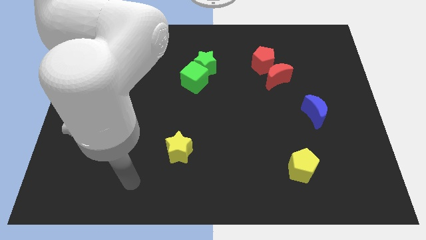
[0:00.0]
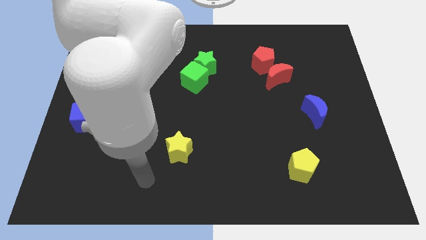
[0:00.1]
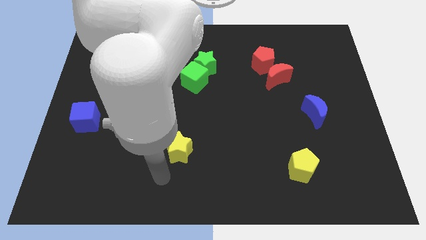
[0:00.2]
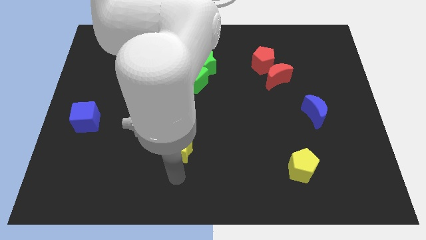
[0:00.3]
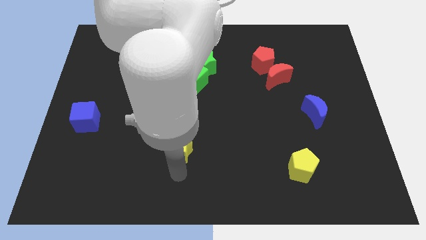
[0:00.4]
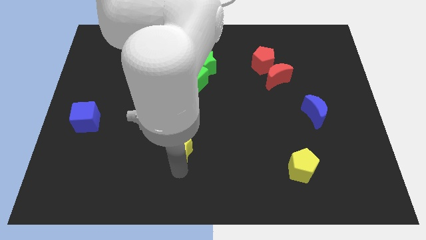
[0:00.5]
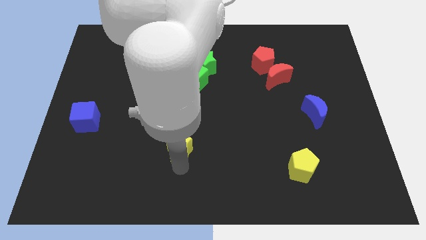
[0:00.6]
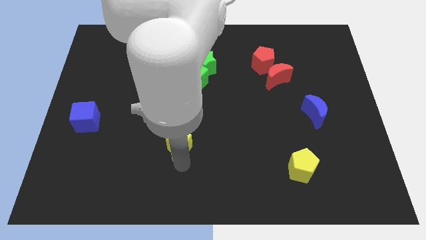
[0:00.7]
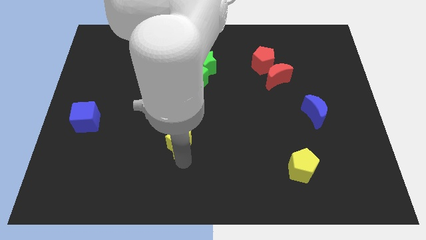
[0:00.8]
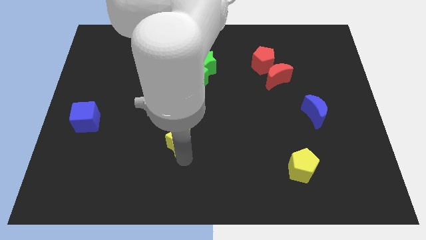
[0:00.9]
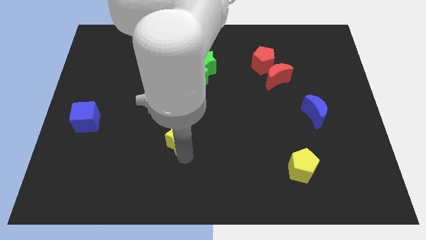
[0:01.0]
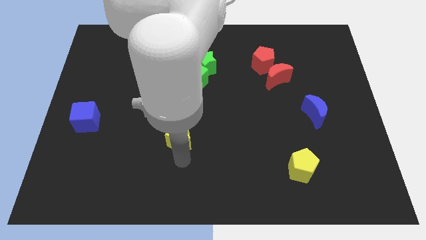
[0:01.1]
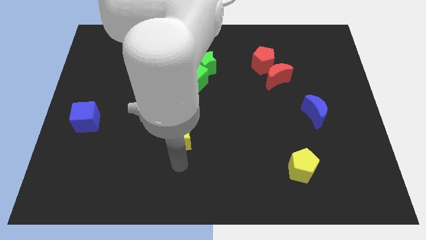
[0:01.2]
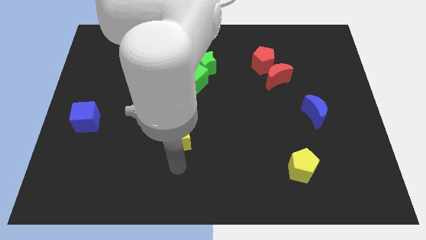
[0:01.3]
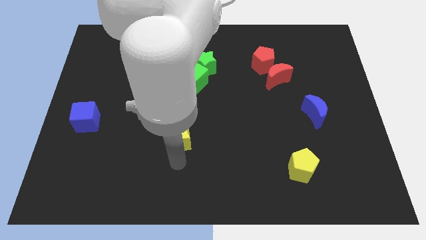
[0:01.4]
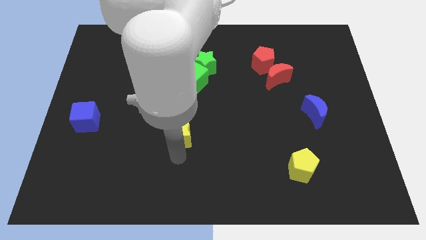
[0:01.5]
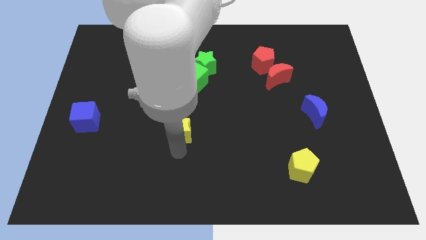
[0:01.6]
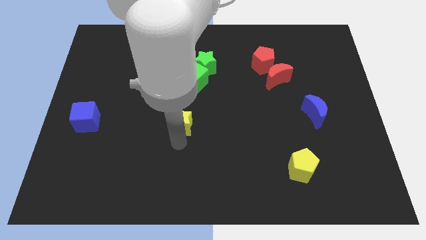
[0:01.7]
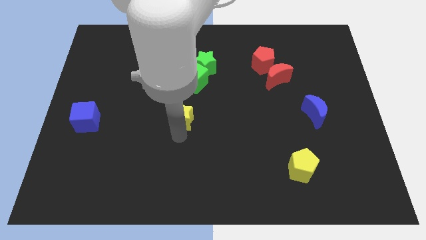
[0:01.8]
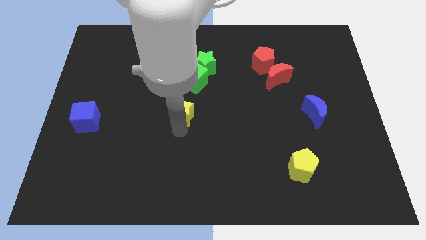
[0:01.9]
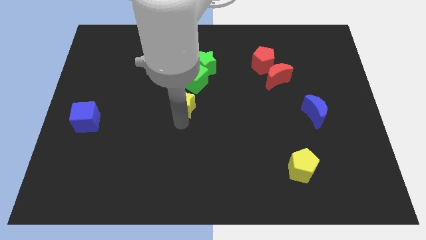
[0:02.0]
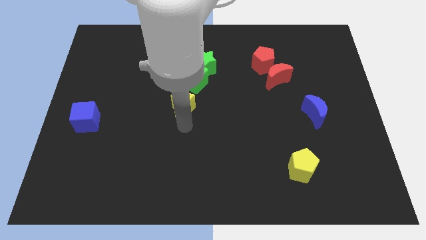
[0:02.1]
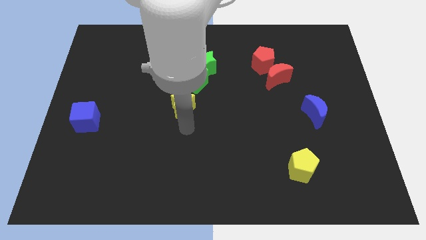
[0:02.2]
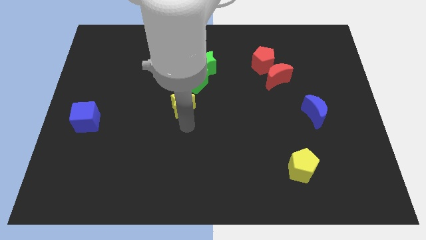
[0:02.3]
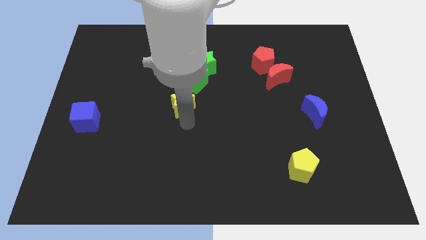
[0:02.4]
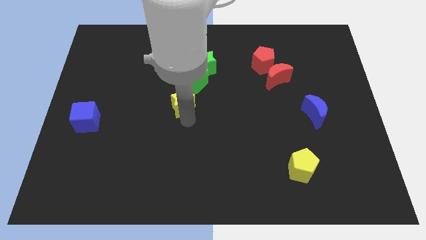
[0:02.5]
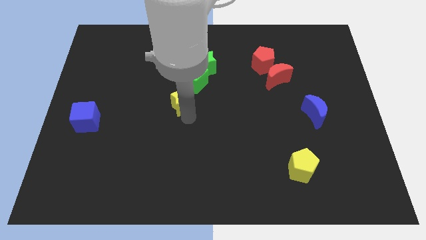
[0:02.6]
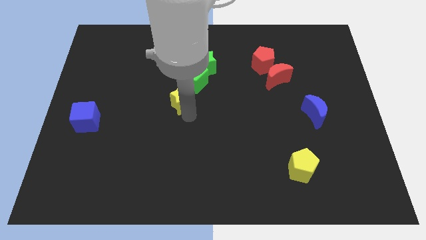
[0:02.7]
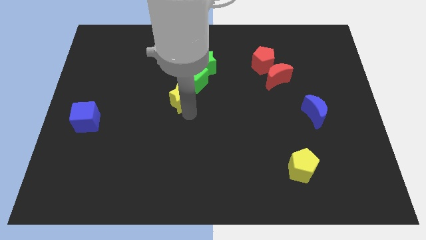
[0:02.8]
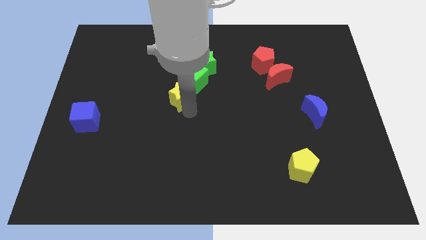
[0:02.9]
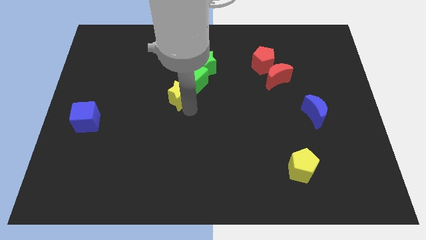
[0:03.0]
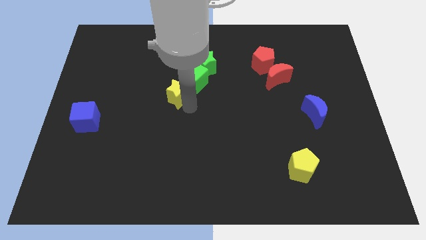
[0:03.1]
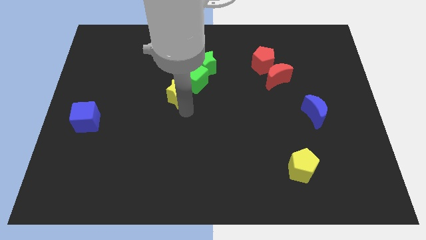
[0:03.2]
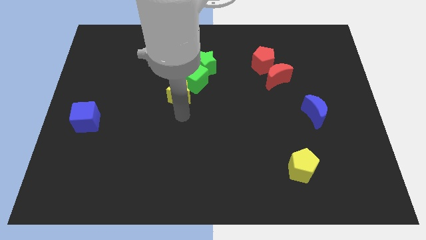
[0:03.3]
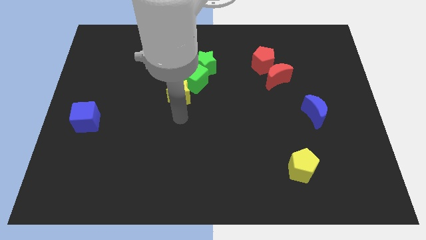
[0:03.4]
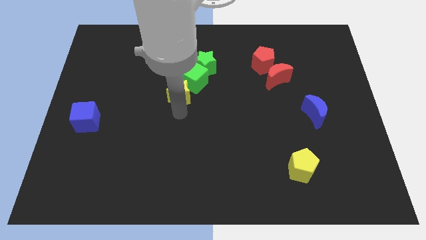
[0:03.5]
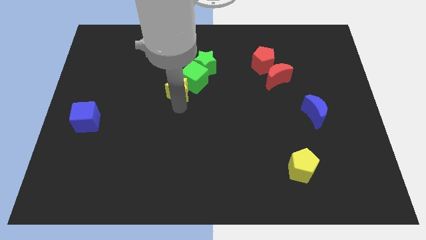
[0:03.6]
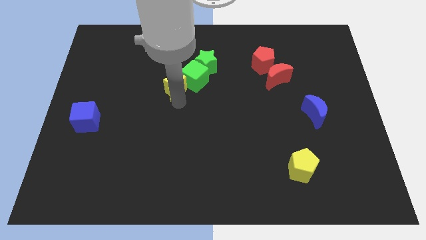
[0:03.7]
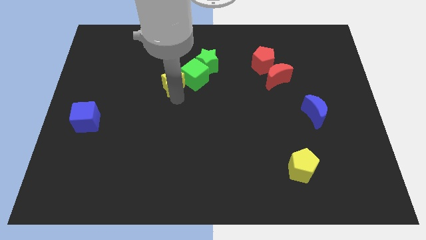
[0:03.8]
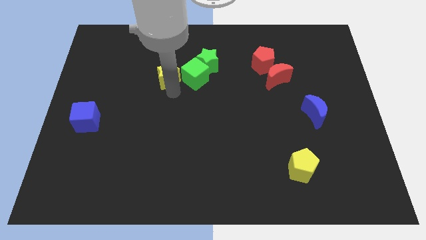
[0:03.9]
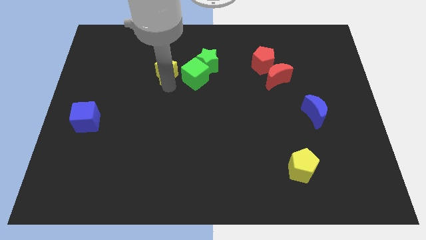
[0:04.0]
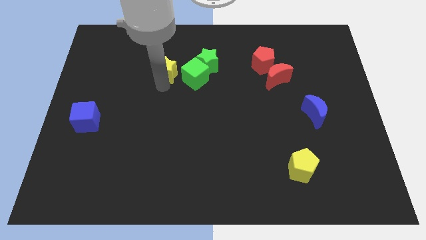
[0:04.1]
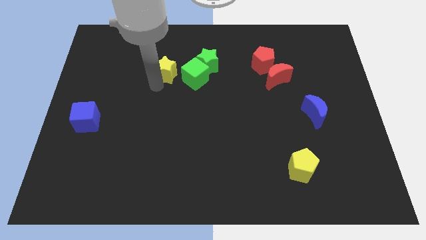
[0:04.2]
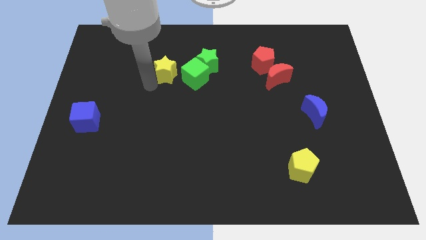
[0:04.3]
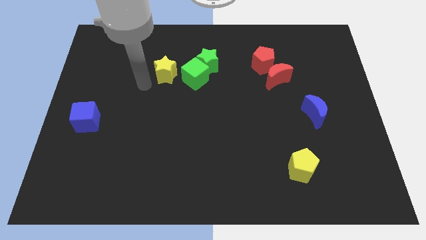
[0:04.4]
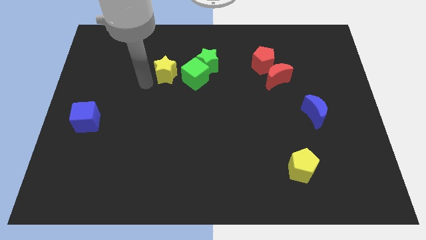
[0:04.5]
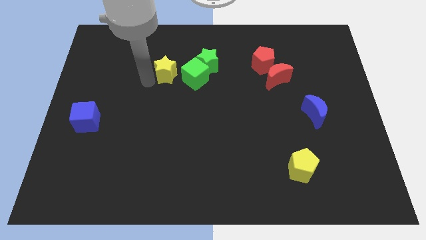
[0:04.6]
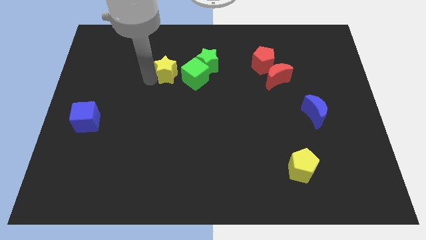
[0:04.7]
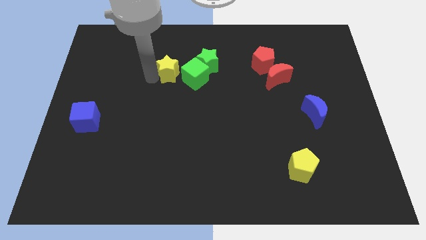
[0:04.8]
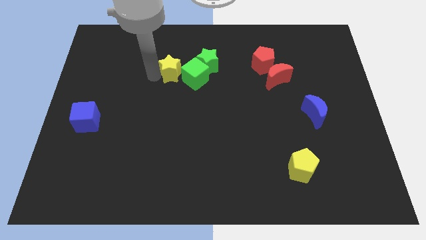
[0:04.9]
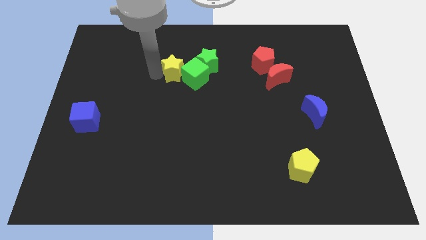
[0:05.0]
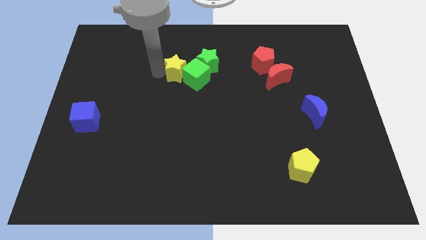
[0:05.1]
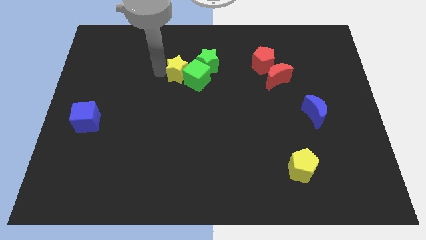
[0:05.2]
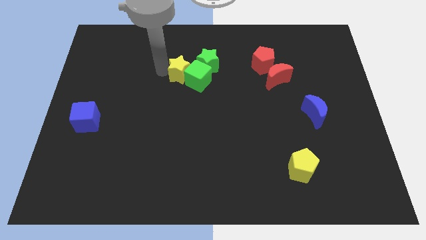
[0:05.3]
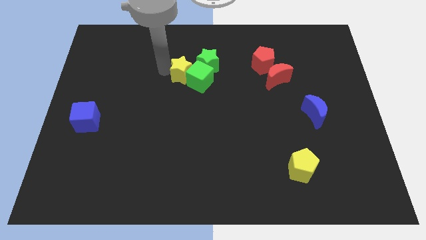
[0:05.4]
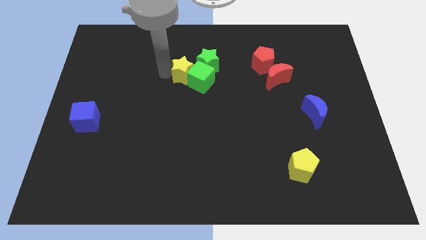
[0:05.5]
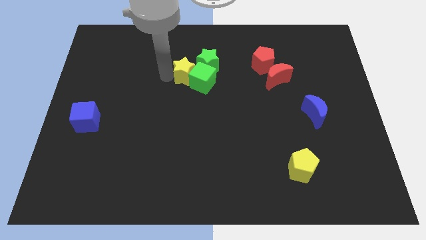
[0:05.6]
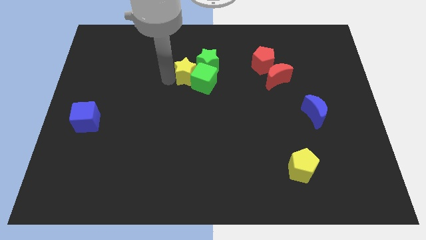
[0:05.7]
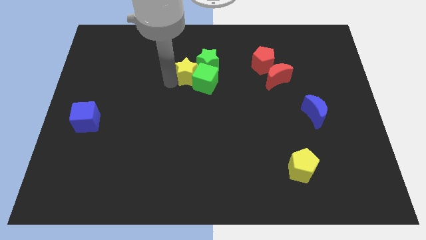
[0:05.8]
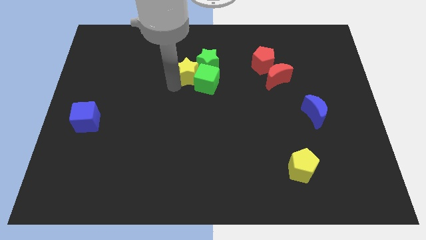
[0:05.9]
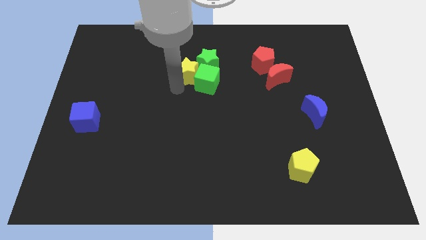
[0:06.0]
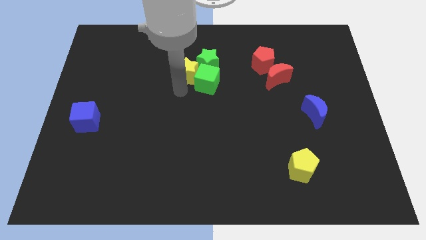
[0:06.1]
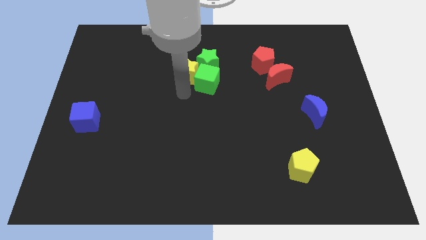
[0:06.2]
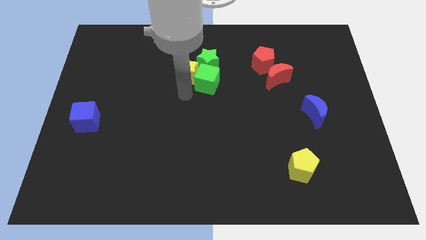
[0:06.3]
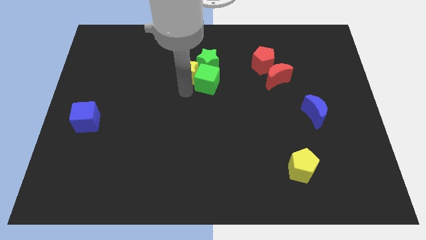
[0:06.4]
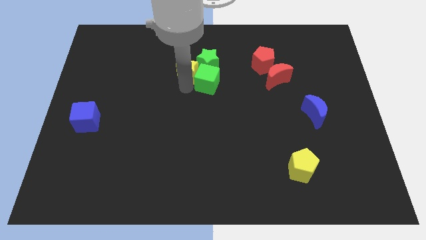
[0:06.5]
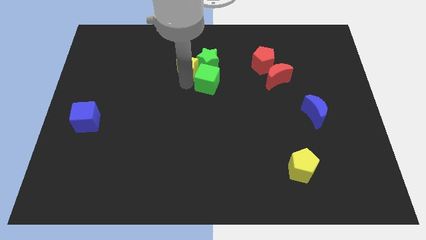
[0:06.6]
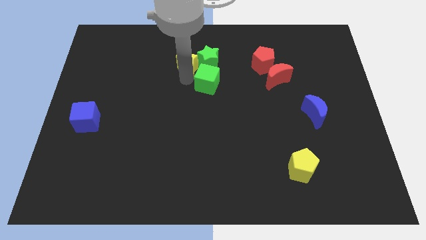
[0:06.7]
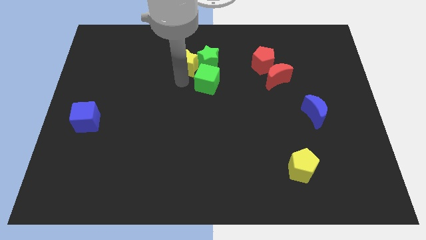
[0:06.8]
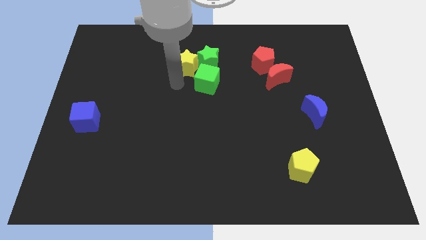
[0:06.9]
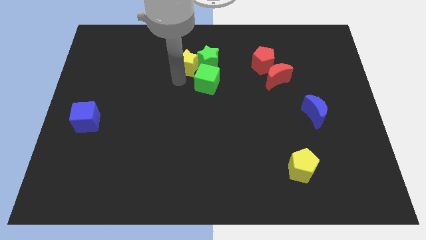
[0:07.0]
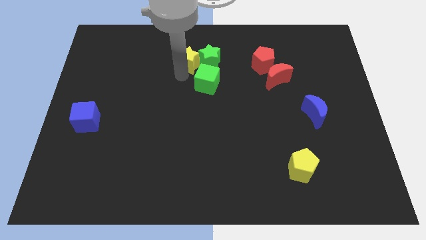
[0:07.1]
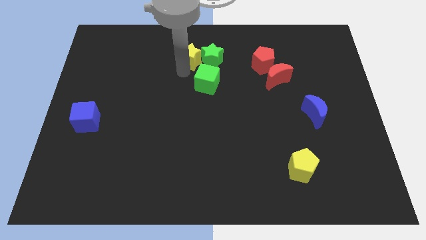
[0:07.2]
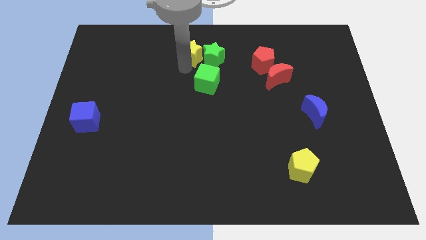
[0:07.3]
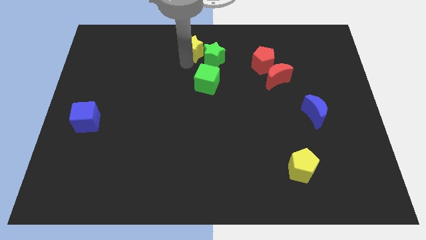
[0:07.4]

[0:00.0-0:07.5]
put the yellow star to the towards your base
